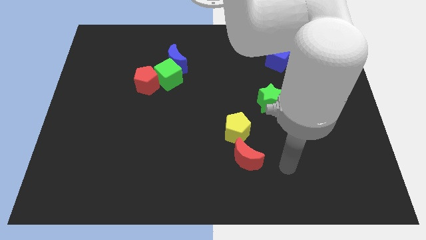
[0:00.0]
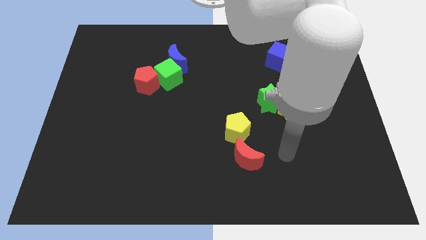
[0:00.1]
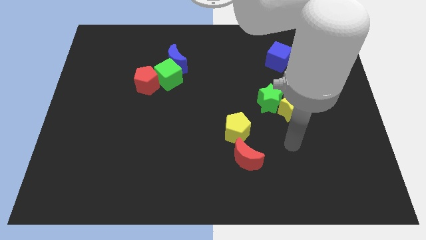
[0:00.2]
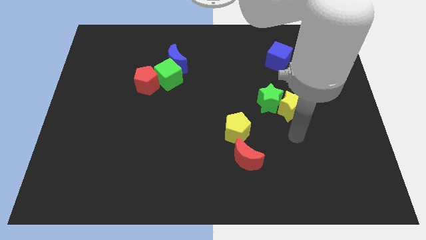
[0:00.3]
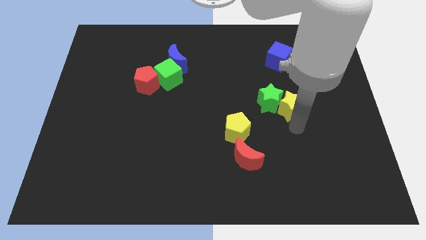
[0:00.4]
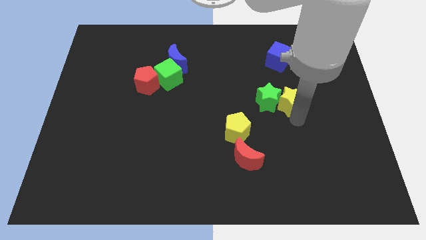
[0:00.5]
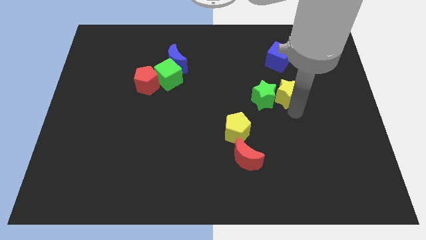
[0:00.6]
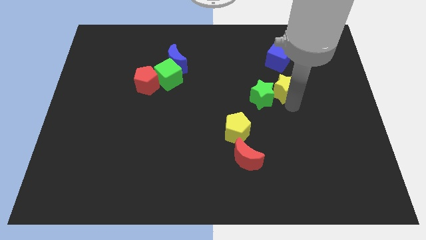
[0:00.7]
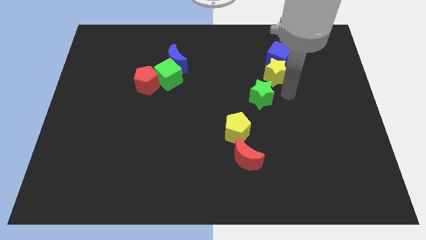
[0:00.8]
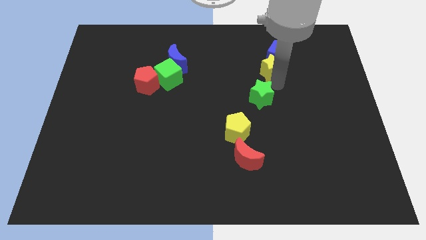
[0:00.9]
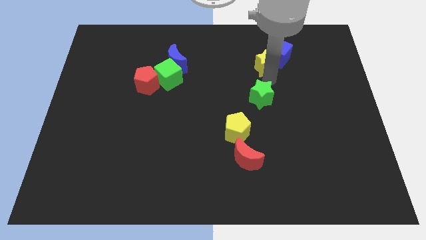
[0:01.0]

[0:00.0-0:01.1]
move the green star away from the yellow star

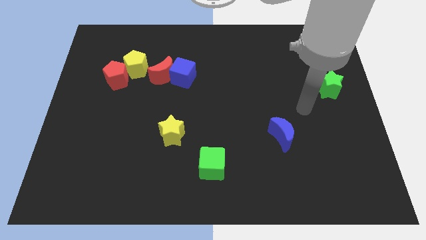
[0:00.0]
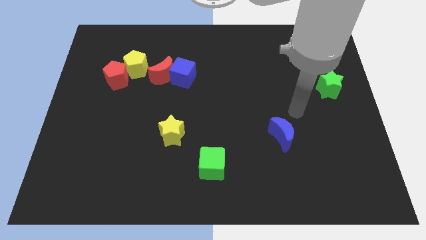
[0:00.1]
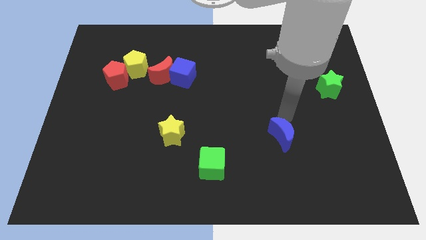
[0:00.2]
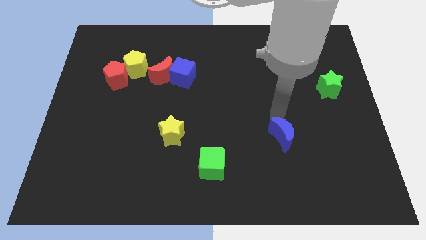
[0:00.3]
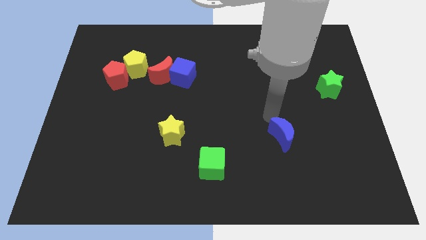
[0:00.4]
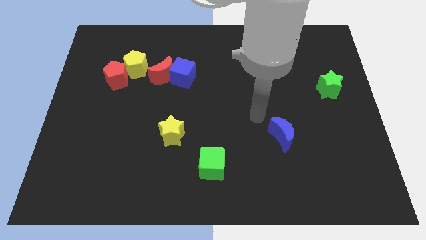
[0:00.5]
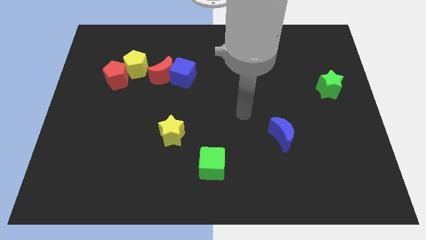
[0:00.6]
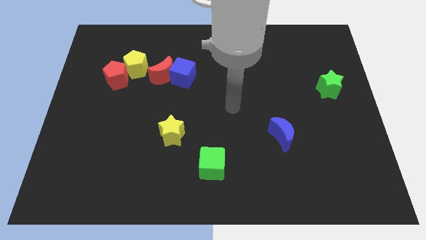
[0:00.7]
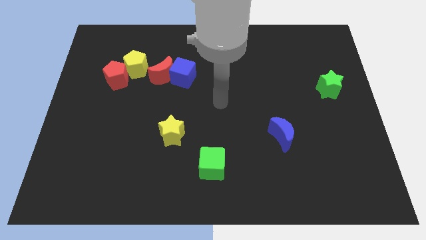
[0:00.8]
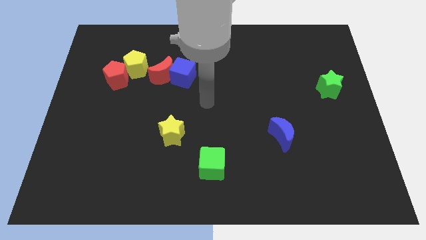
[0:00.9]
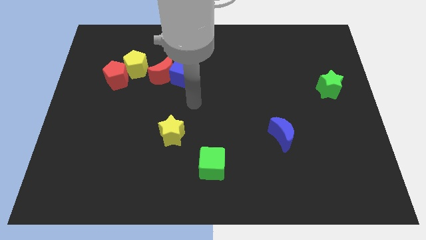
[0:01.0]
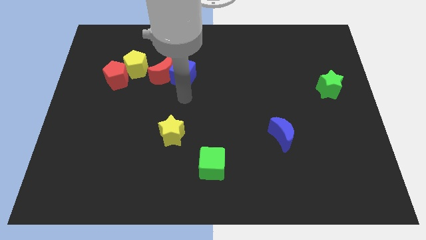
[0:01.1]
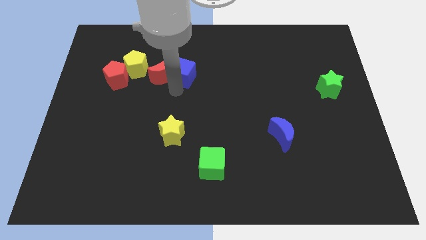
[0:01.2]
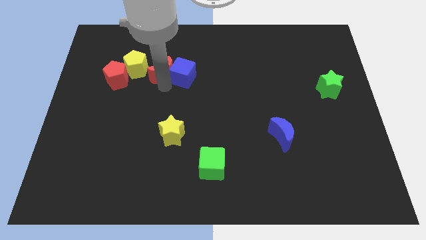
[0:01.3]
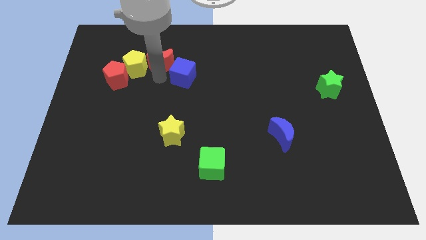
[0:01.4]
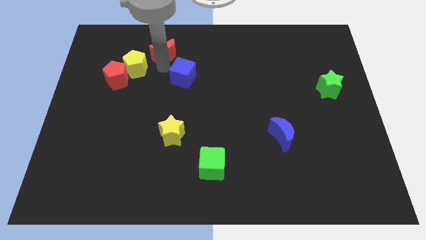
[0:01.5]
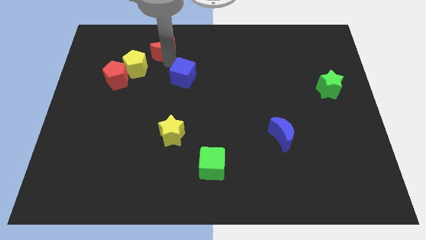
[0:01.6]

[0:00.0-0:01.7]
pull the blue cube apart from the red moon

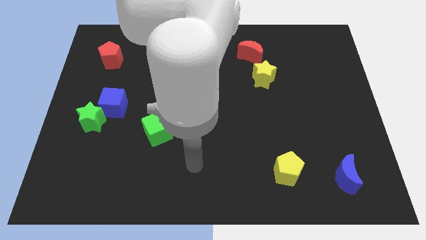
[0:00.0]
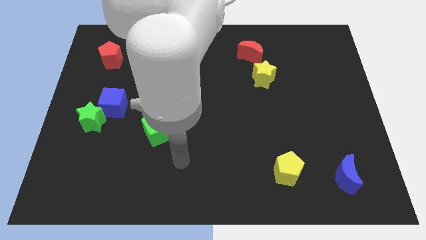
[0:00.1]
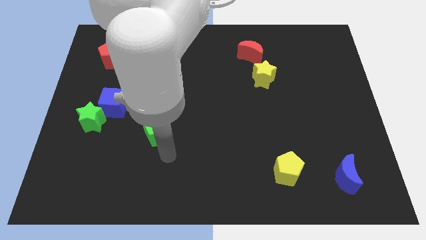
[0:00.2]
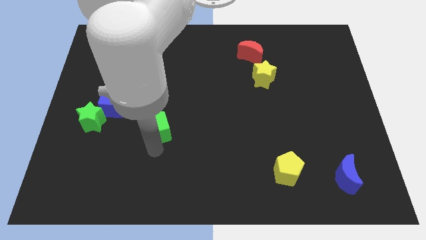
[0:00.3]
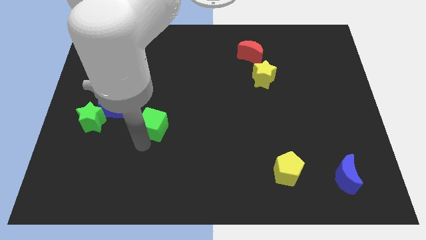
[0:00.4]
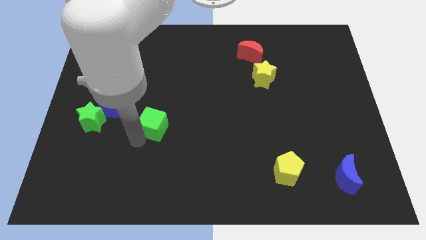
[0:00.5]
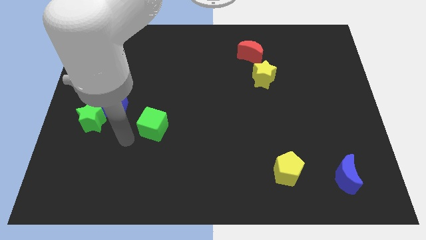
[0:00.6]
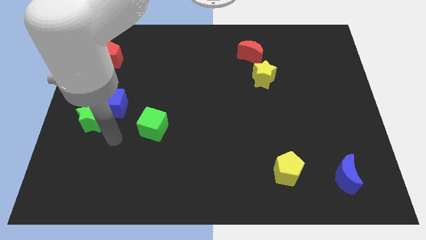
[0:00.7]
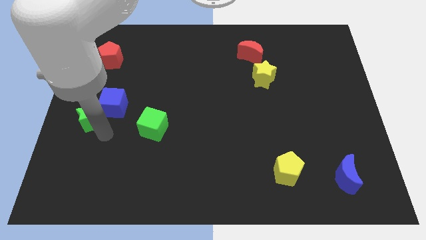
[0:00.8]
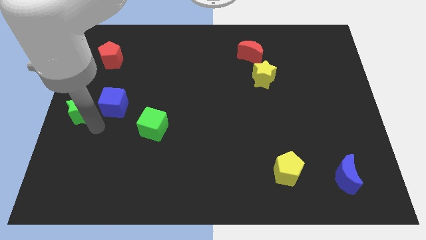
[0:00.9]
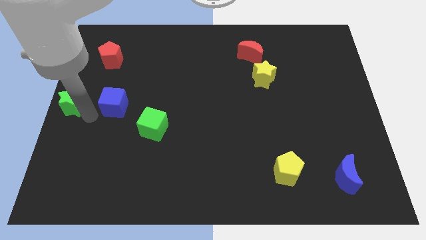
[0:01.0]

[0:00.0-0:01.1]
pull the blue cube apart from the green star

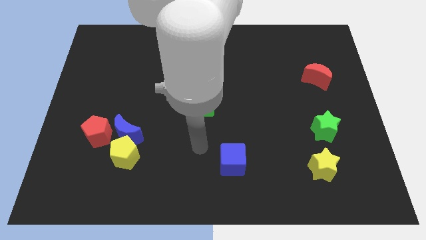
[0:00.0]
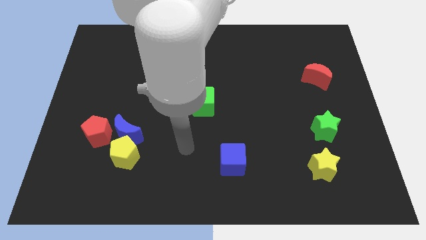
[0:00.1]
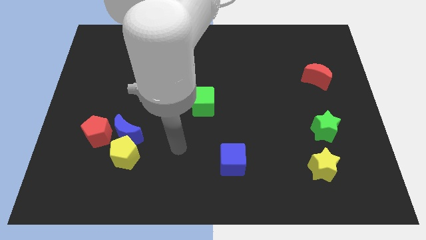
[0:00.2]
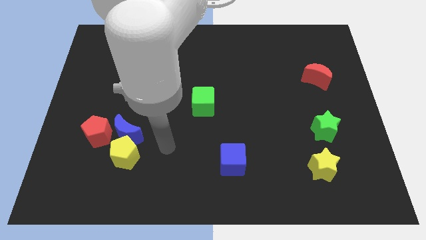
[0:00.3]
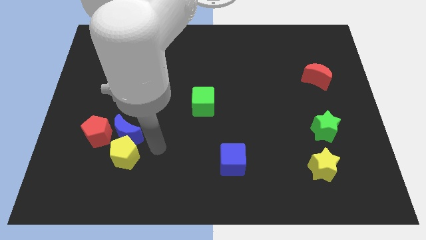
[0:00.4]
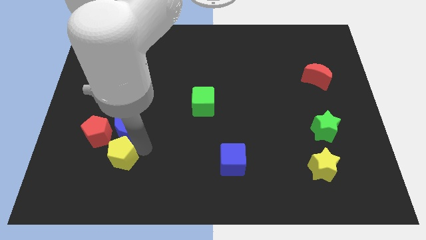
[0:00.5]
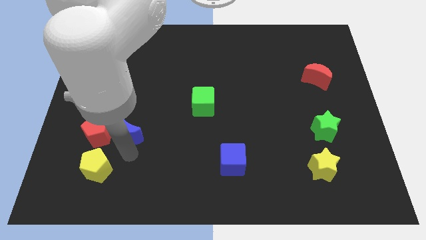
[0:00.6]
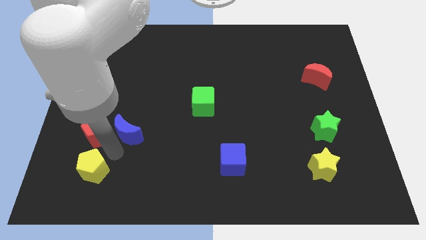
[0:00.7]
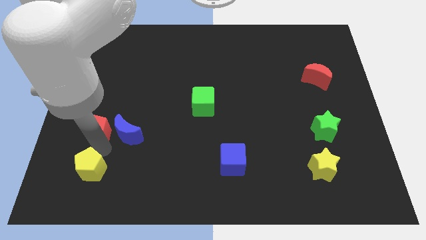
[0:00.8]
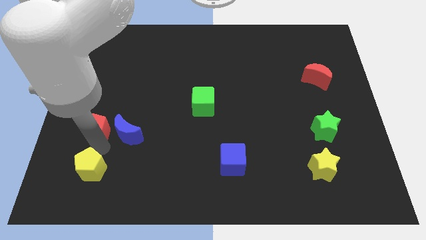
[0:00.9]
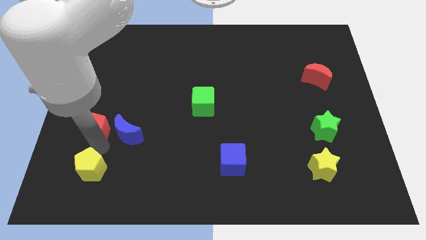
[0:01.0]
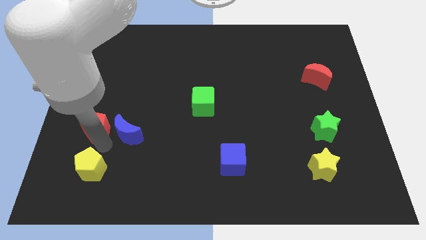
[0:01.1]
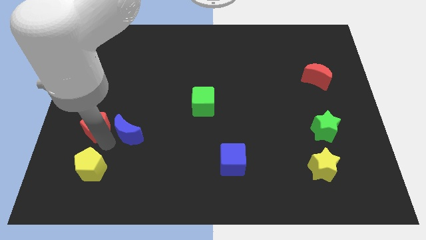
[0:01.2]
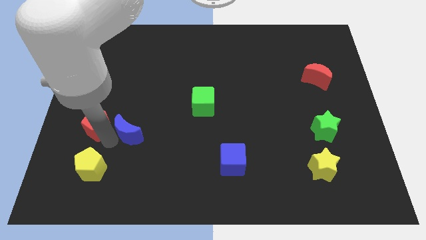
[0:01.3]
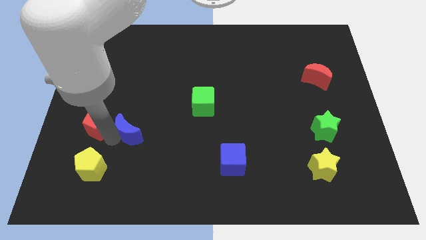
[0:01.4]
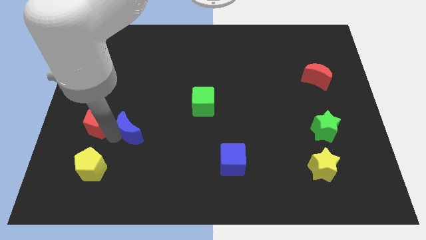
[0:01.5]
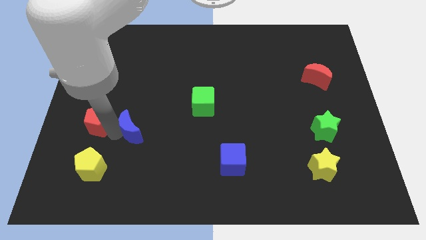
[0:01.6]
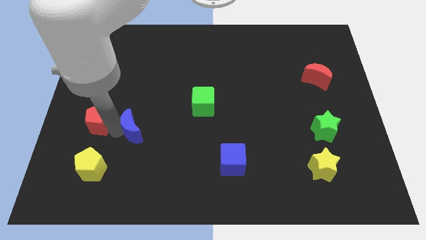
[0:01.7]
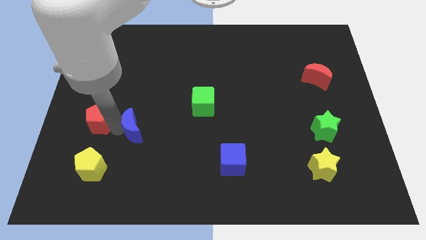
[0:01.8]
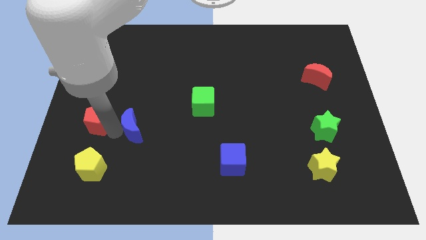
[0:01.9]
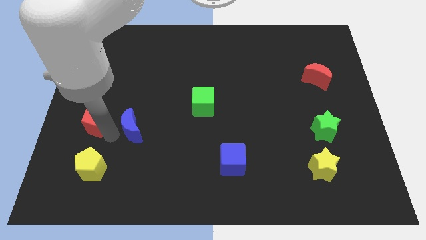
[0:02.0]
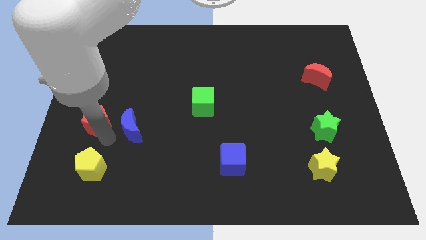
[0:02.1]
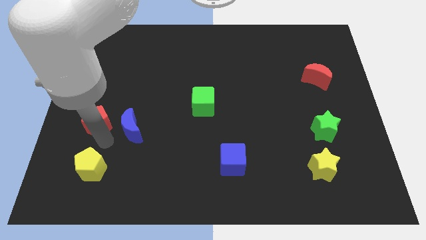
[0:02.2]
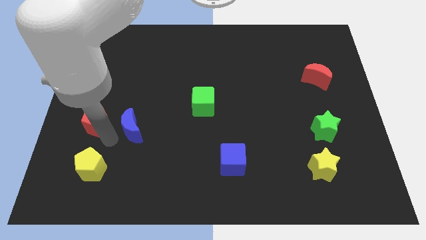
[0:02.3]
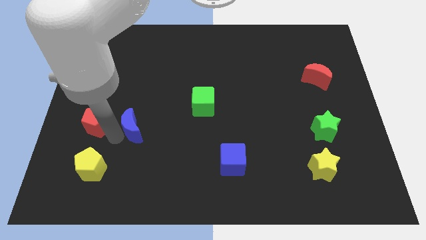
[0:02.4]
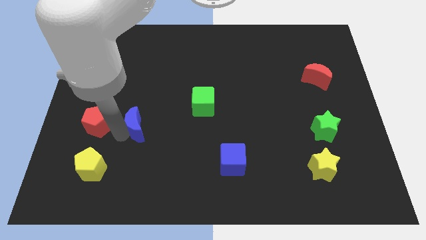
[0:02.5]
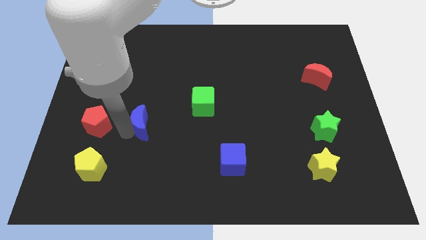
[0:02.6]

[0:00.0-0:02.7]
pull the blue moon apart from the yellow pentagon and red pentagon

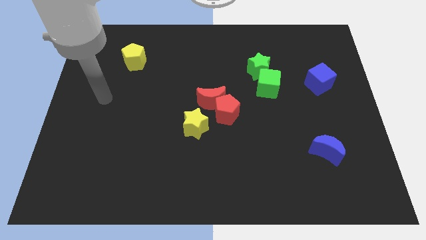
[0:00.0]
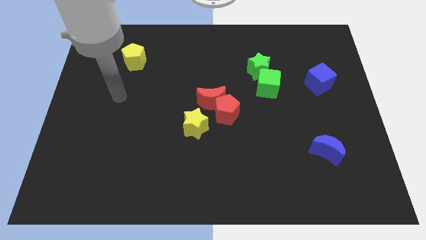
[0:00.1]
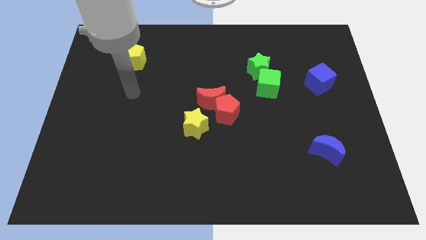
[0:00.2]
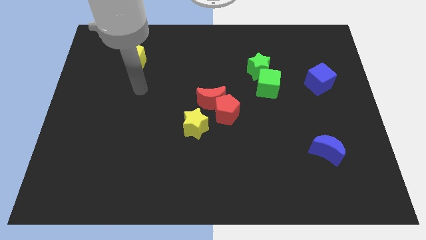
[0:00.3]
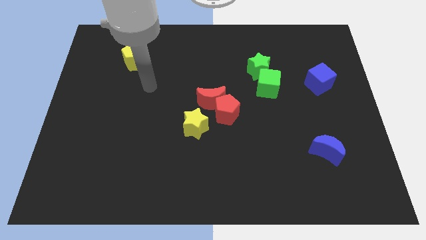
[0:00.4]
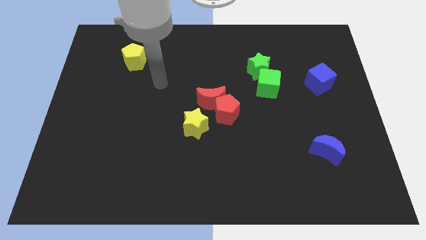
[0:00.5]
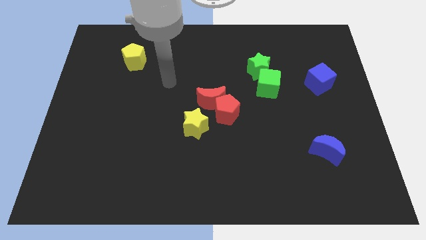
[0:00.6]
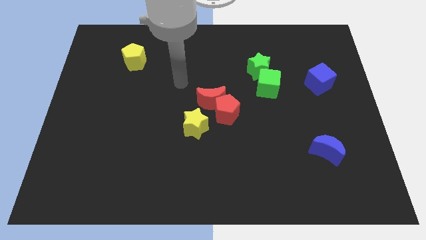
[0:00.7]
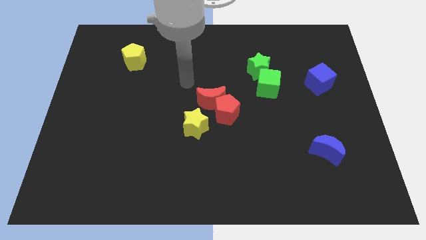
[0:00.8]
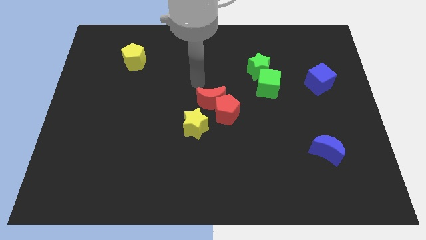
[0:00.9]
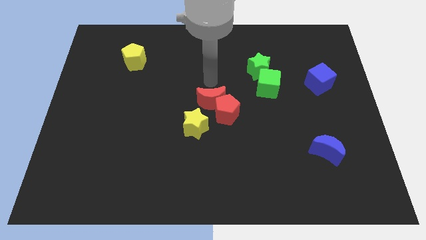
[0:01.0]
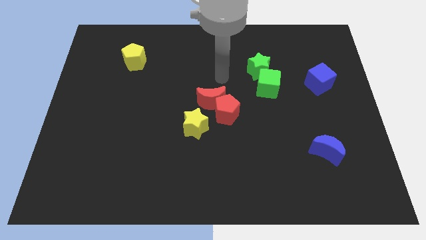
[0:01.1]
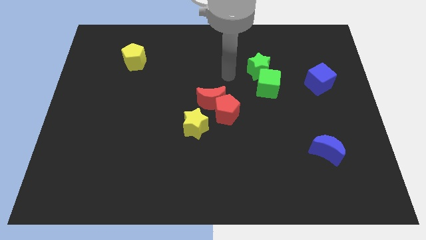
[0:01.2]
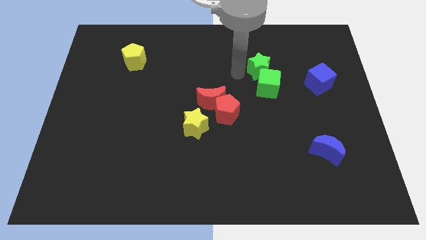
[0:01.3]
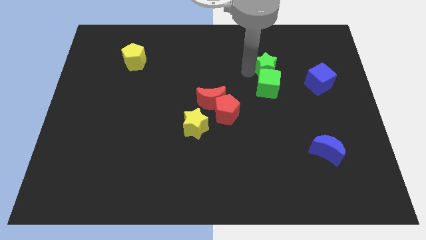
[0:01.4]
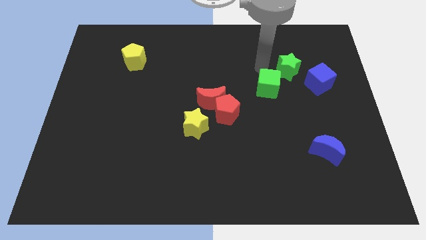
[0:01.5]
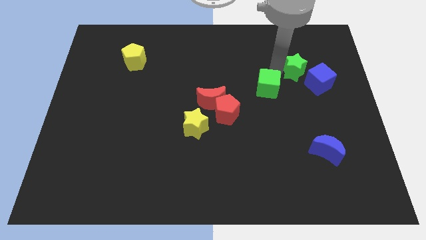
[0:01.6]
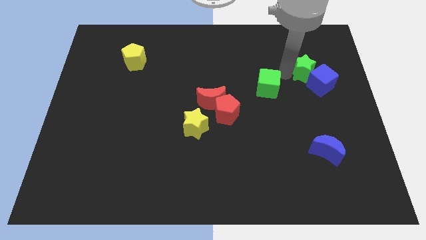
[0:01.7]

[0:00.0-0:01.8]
separate the green cube from the green star

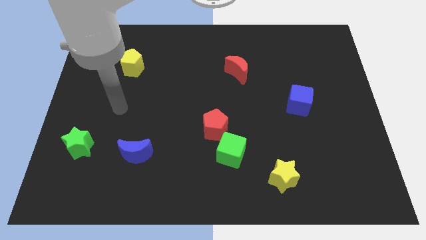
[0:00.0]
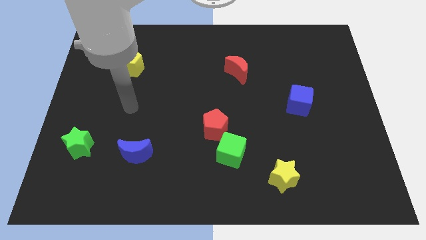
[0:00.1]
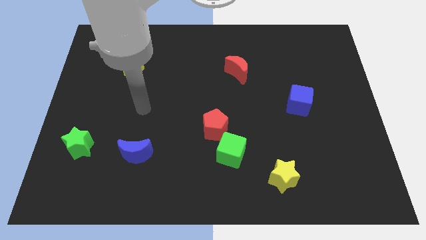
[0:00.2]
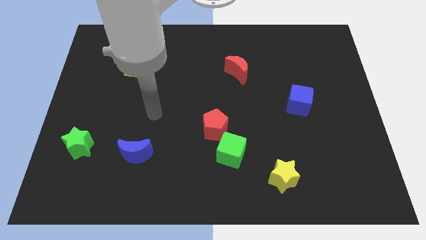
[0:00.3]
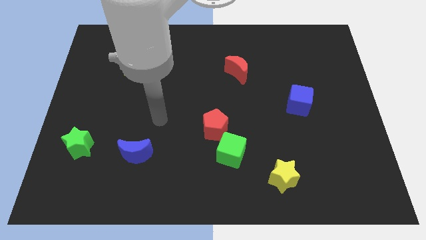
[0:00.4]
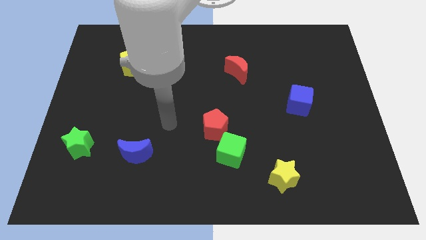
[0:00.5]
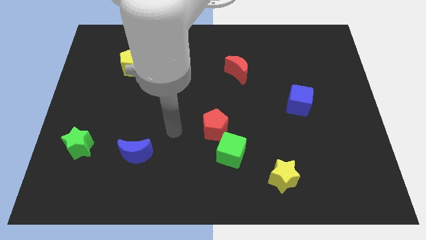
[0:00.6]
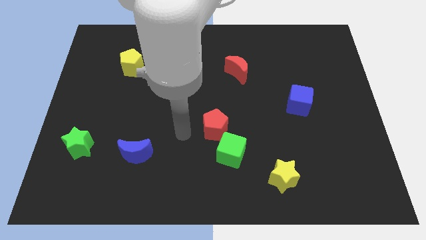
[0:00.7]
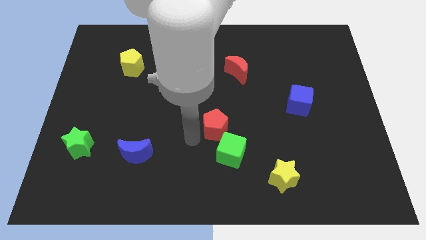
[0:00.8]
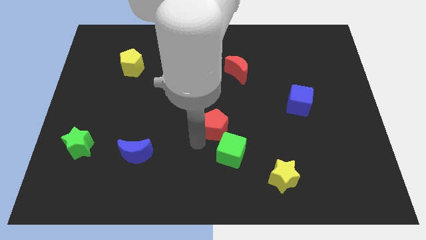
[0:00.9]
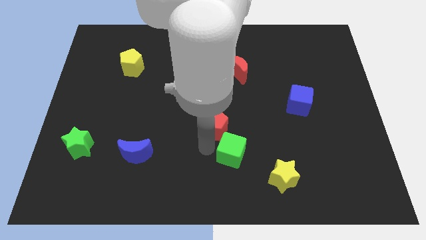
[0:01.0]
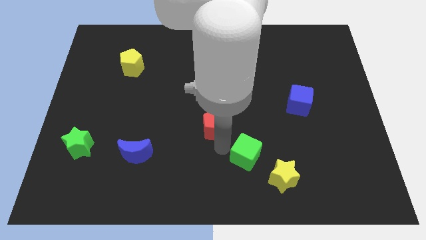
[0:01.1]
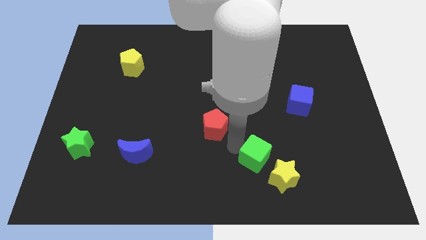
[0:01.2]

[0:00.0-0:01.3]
pull the red pentagon apart from the green cube
